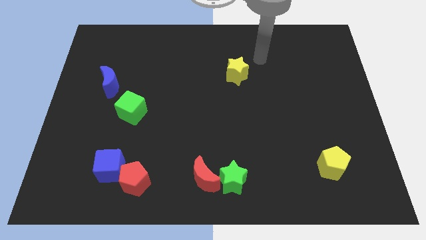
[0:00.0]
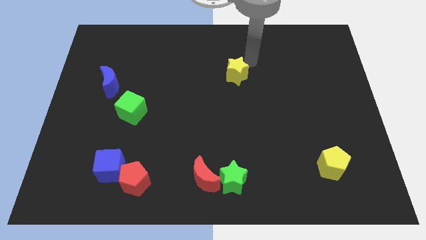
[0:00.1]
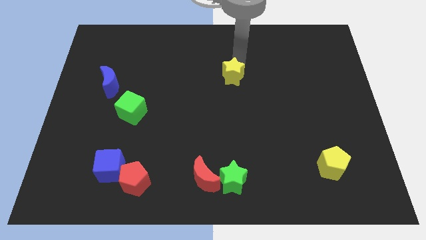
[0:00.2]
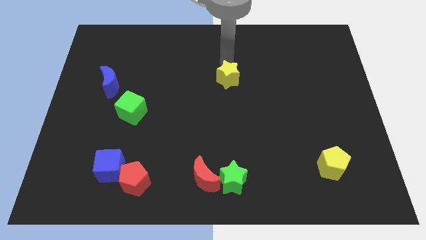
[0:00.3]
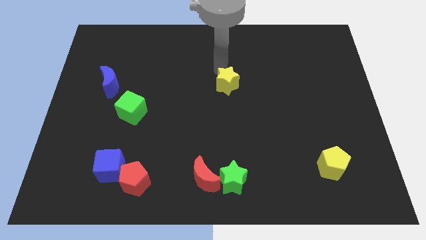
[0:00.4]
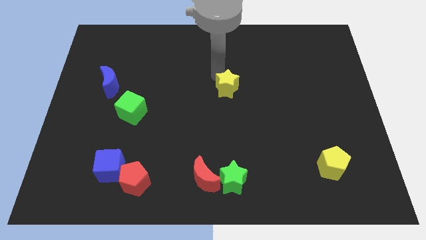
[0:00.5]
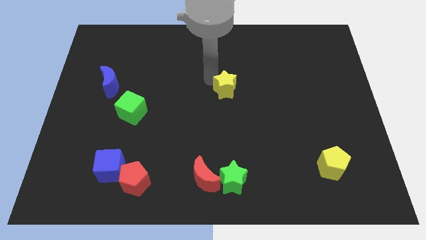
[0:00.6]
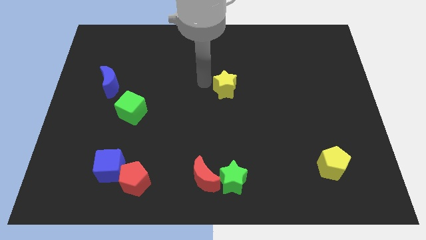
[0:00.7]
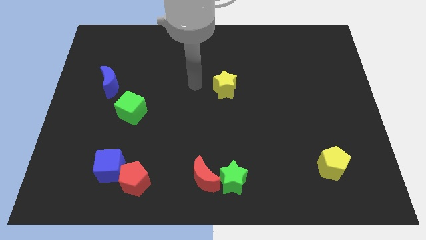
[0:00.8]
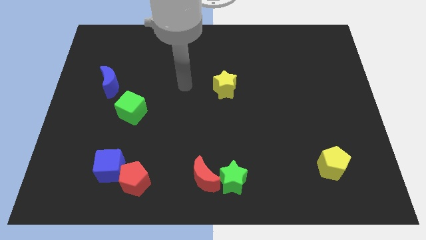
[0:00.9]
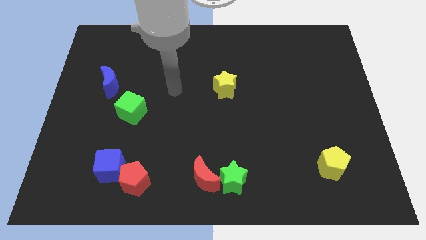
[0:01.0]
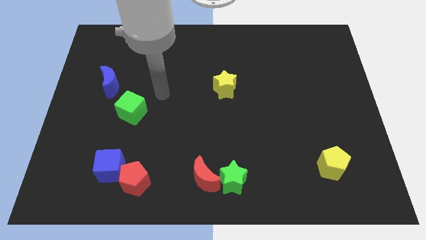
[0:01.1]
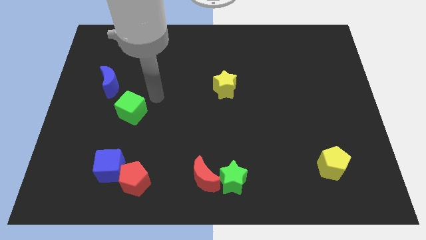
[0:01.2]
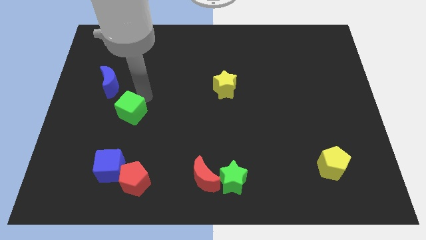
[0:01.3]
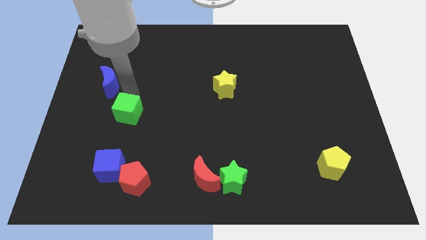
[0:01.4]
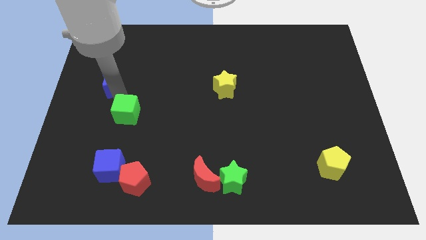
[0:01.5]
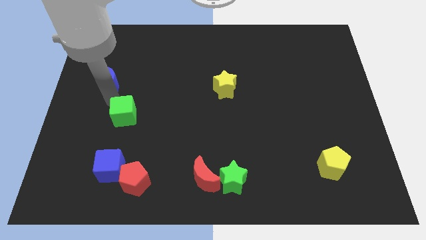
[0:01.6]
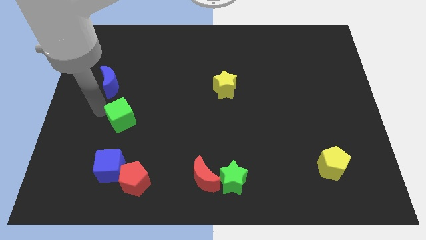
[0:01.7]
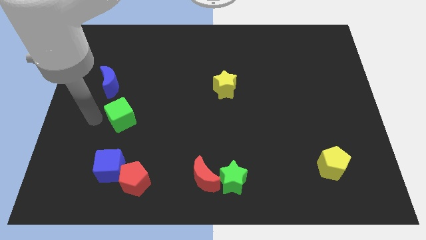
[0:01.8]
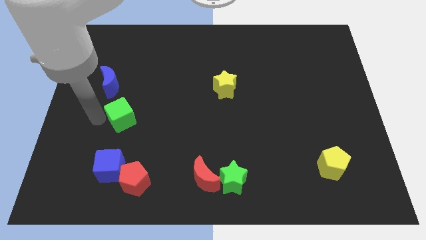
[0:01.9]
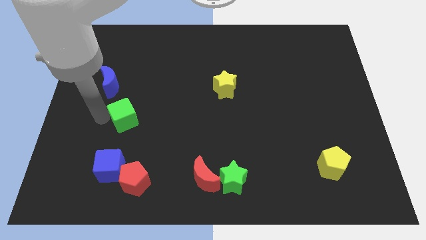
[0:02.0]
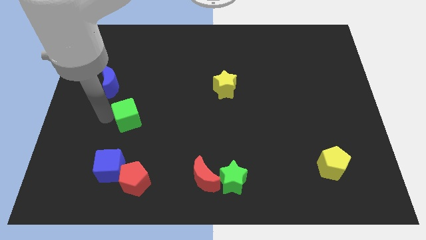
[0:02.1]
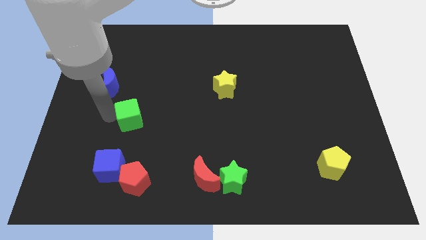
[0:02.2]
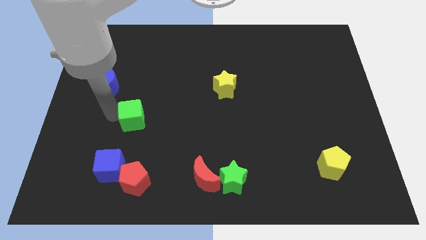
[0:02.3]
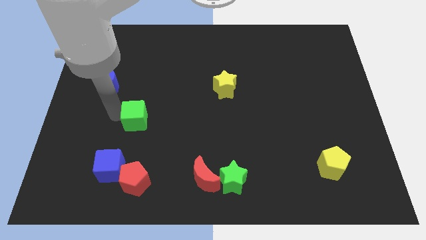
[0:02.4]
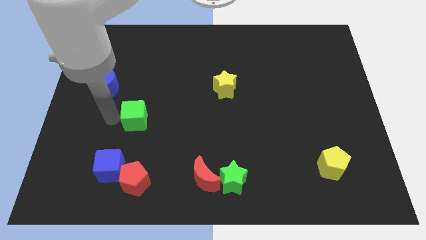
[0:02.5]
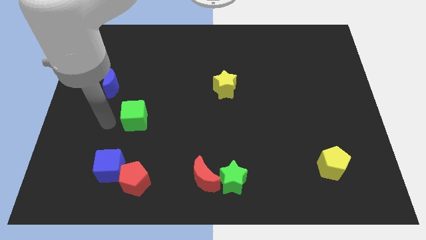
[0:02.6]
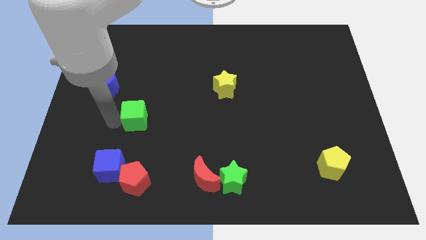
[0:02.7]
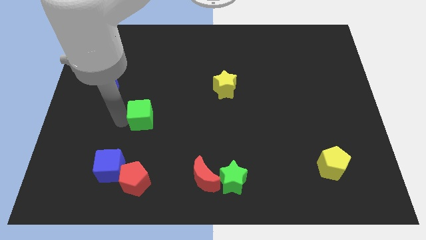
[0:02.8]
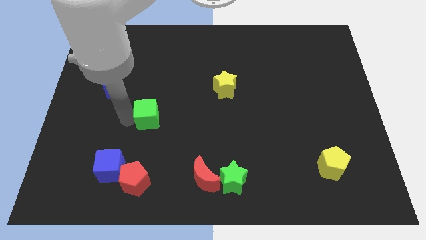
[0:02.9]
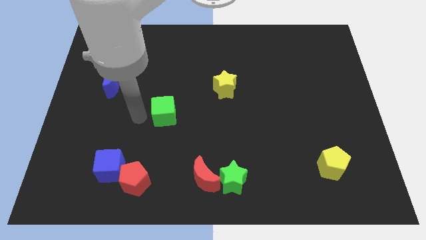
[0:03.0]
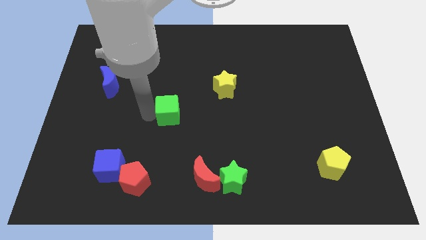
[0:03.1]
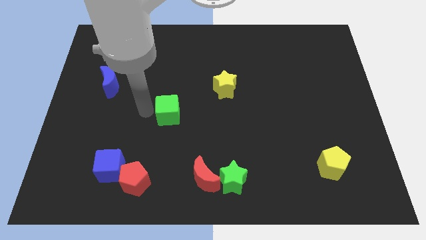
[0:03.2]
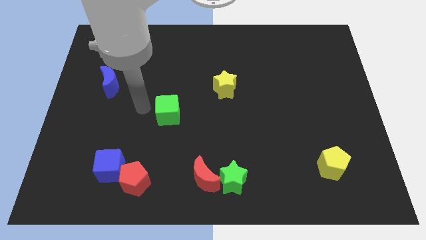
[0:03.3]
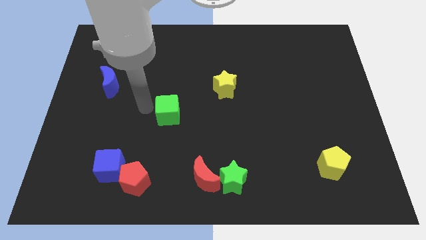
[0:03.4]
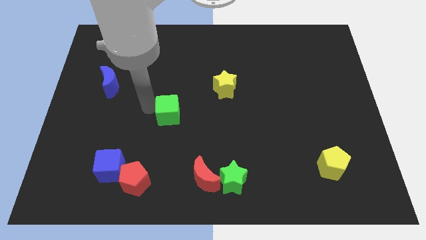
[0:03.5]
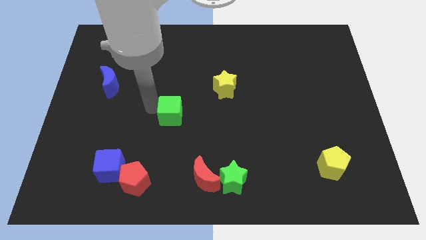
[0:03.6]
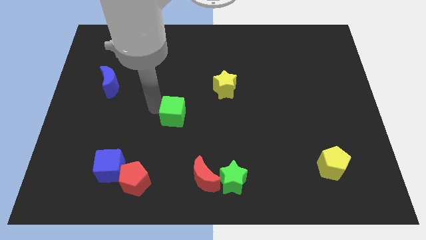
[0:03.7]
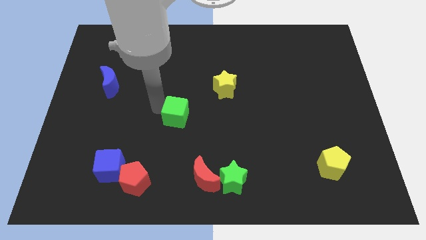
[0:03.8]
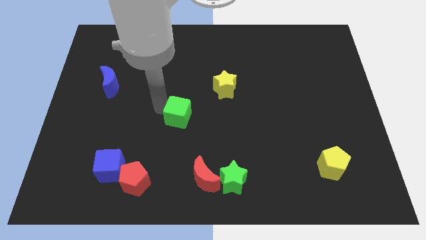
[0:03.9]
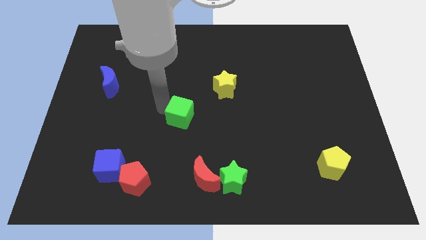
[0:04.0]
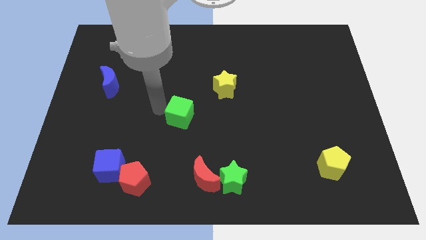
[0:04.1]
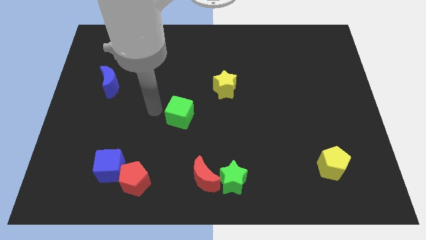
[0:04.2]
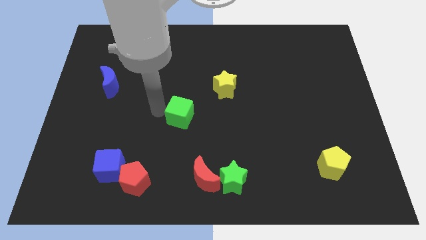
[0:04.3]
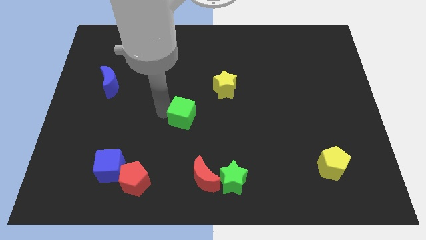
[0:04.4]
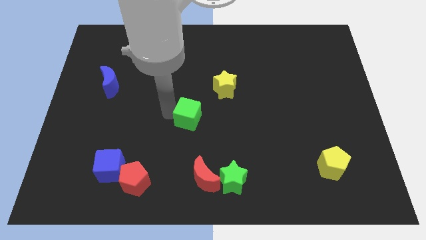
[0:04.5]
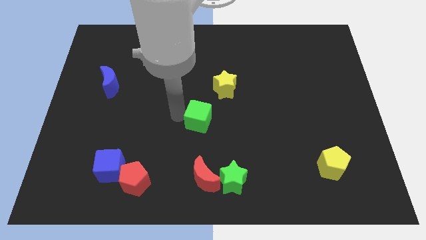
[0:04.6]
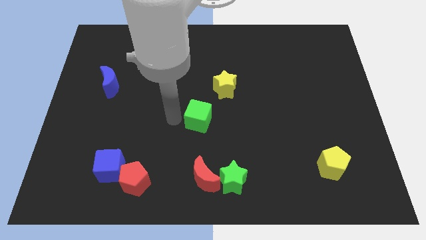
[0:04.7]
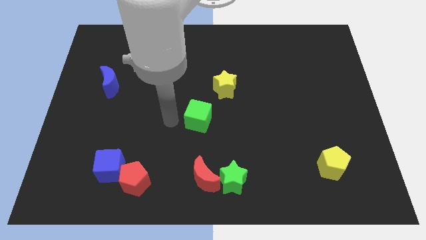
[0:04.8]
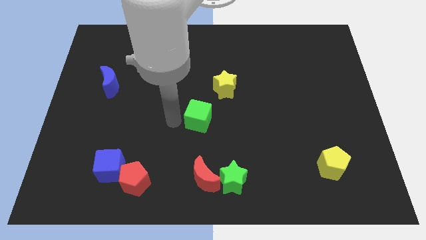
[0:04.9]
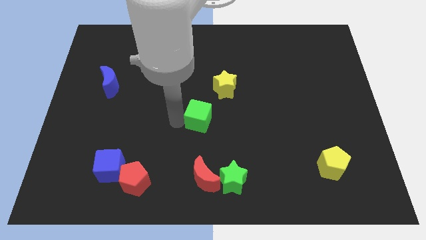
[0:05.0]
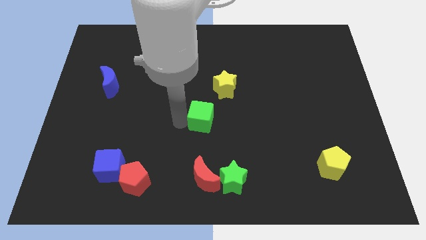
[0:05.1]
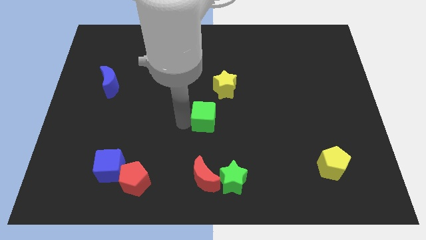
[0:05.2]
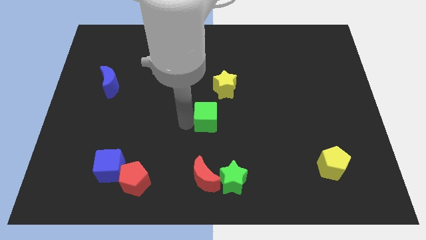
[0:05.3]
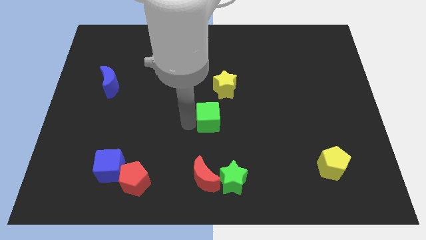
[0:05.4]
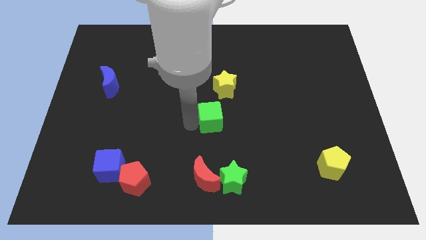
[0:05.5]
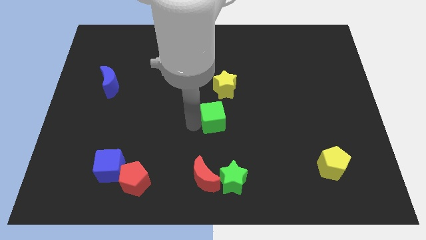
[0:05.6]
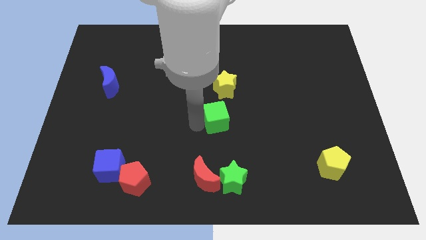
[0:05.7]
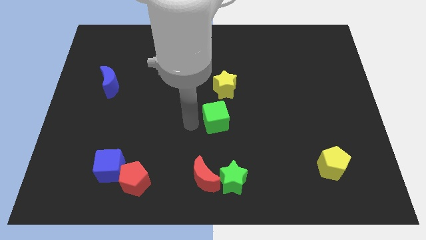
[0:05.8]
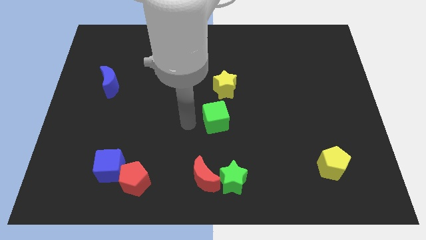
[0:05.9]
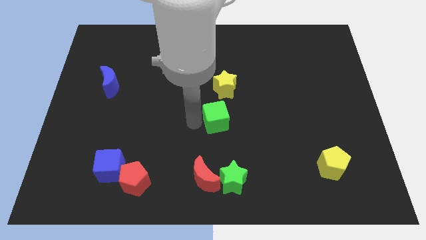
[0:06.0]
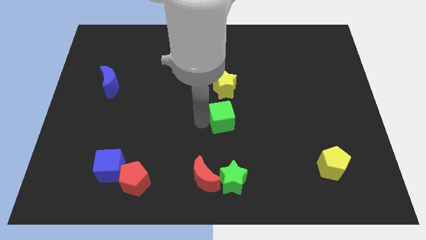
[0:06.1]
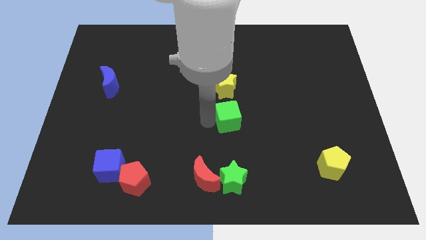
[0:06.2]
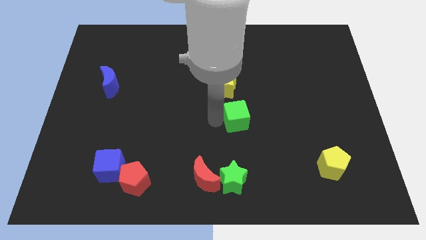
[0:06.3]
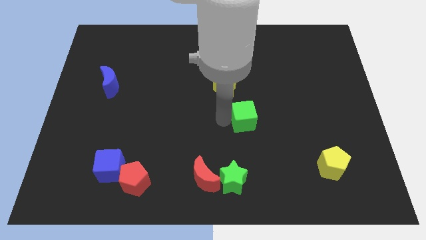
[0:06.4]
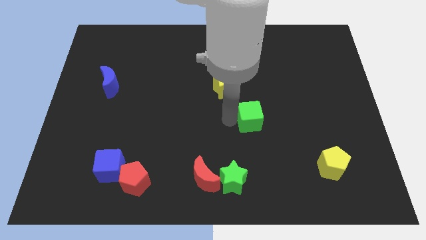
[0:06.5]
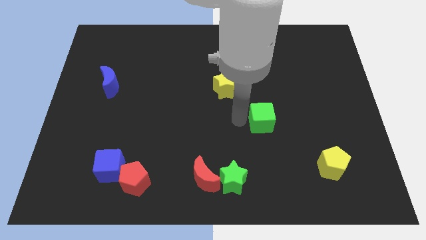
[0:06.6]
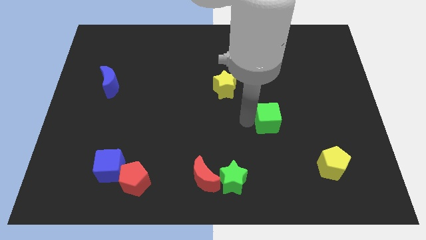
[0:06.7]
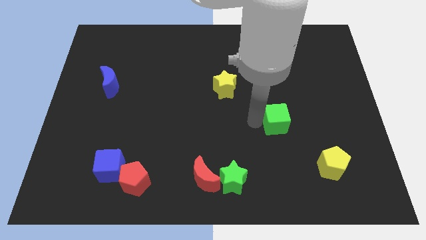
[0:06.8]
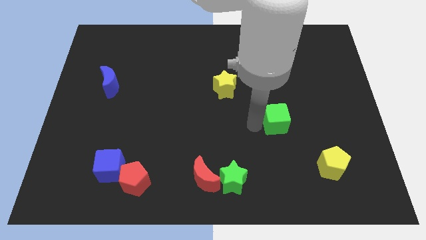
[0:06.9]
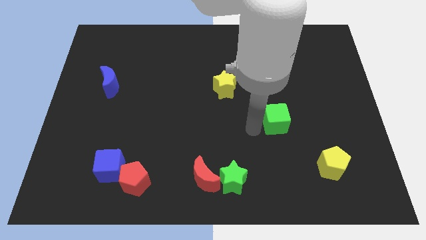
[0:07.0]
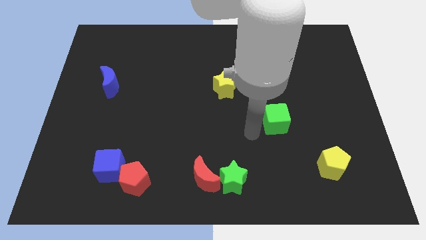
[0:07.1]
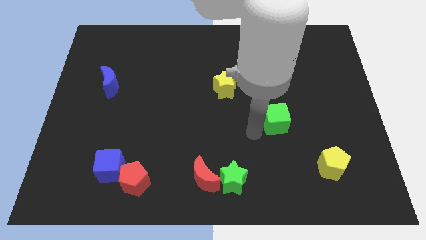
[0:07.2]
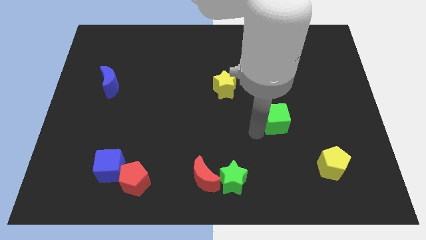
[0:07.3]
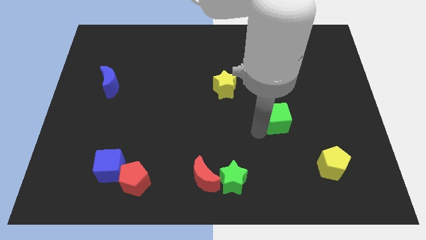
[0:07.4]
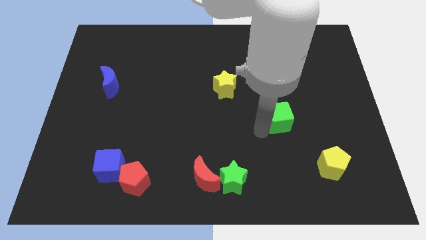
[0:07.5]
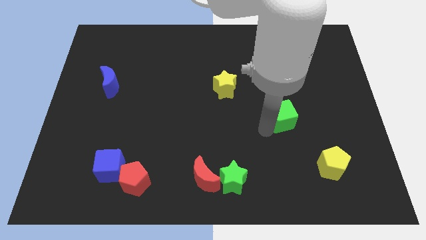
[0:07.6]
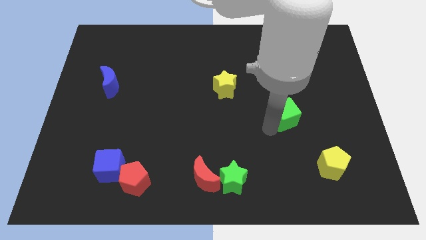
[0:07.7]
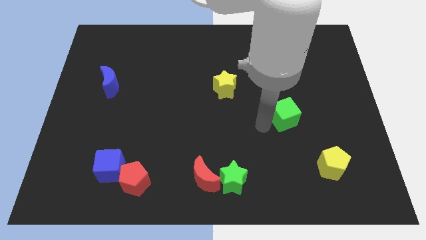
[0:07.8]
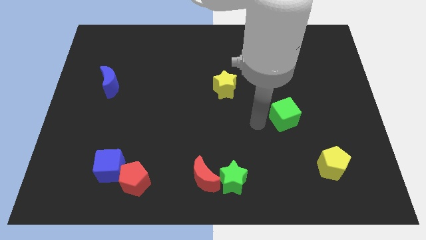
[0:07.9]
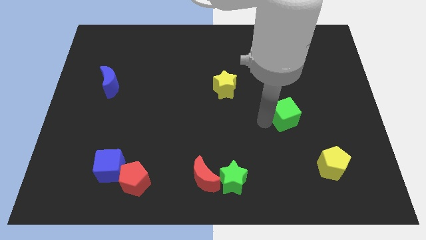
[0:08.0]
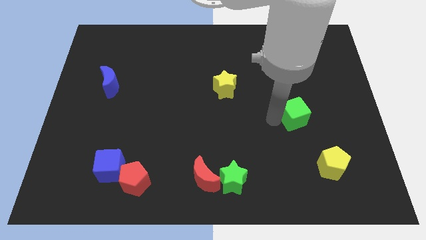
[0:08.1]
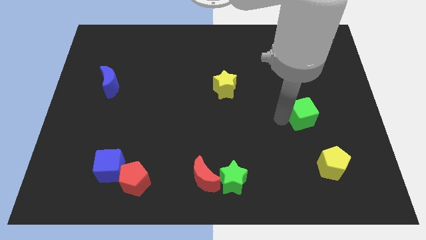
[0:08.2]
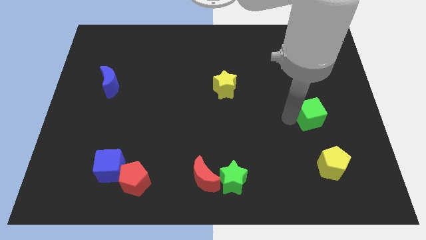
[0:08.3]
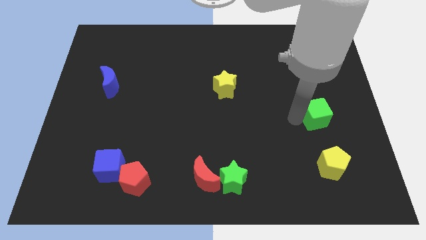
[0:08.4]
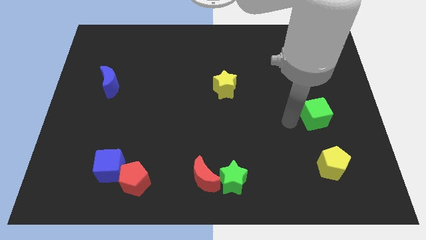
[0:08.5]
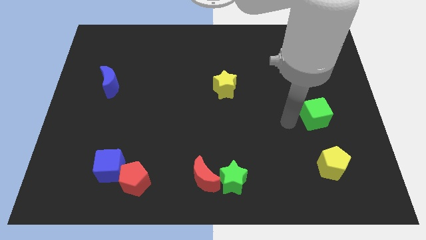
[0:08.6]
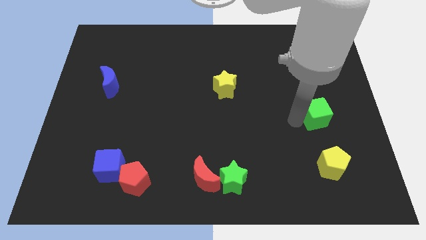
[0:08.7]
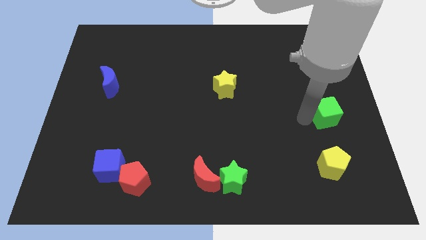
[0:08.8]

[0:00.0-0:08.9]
push the green cube to the right side of the board
